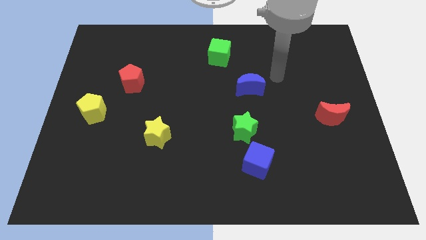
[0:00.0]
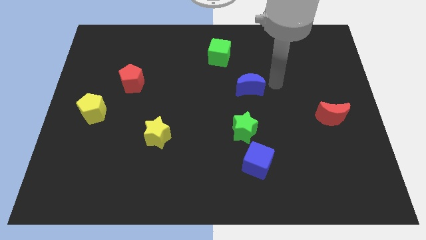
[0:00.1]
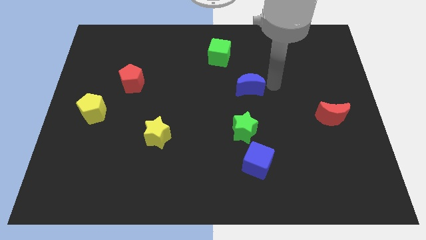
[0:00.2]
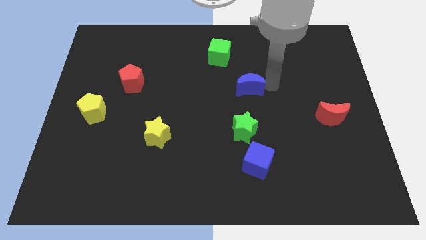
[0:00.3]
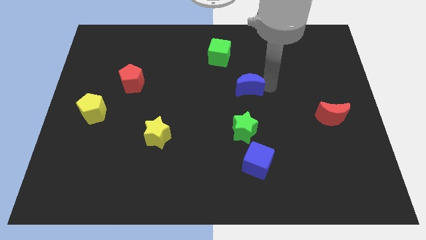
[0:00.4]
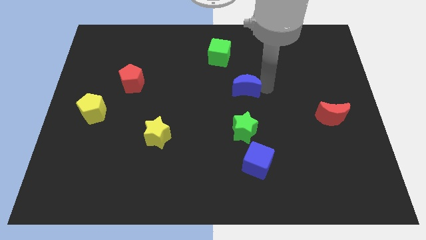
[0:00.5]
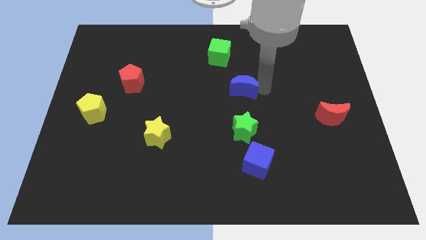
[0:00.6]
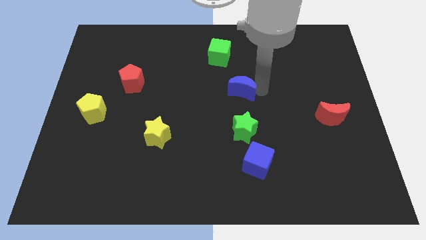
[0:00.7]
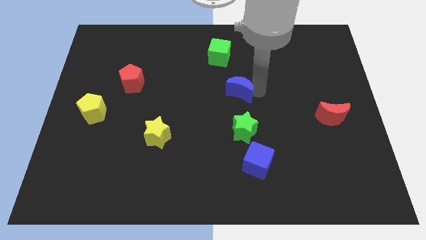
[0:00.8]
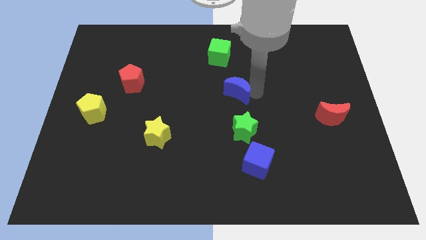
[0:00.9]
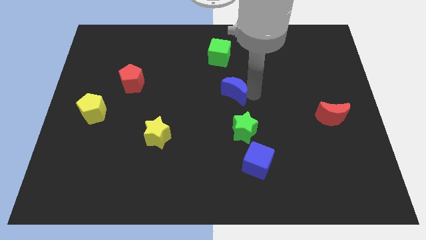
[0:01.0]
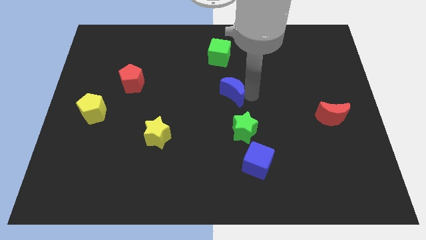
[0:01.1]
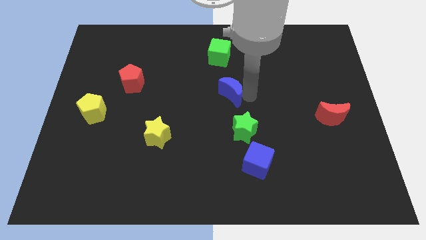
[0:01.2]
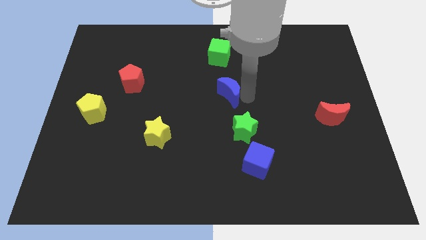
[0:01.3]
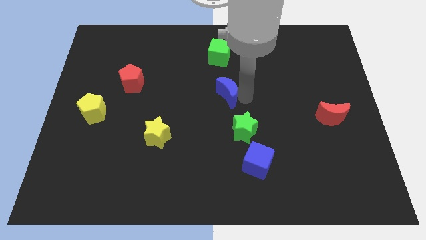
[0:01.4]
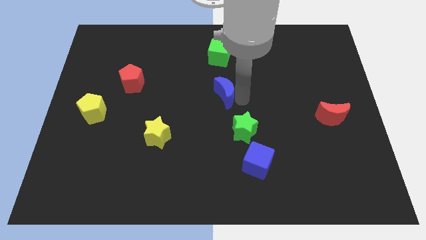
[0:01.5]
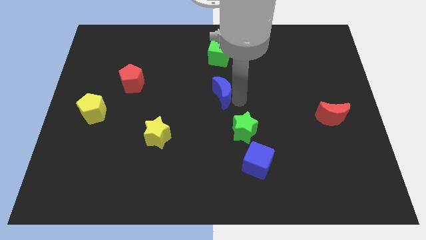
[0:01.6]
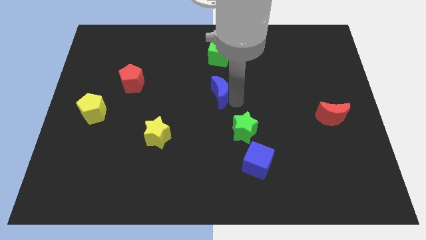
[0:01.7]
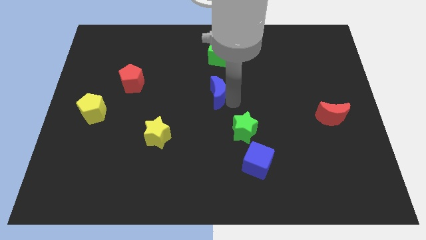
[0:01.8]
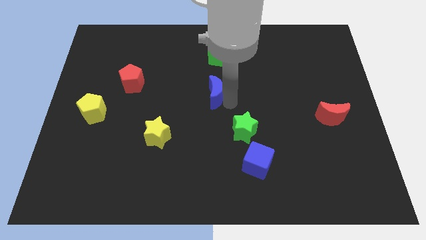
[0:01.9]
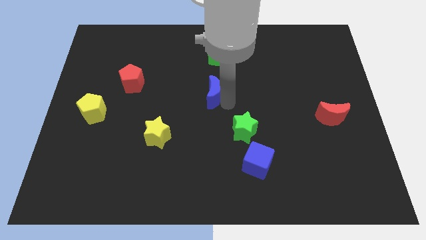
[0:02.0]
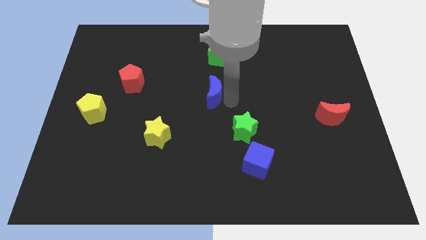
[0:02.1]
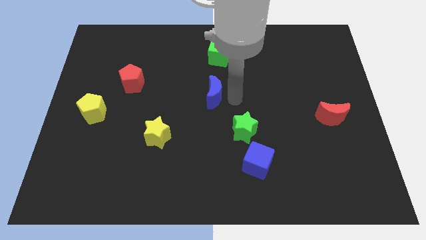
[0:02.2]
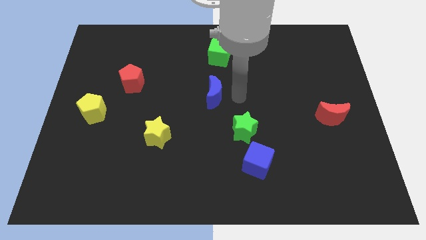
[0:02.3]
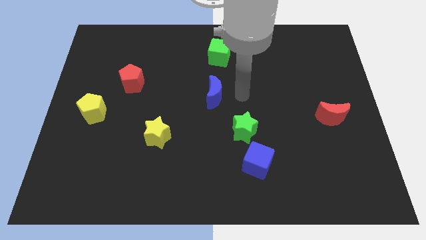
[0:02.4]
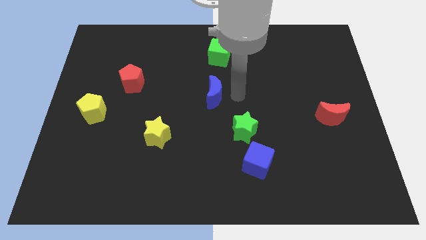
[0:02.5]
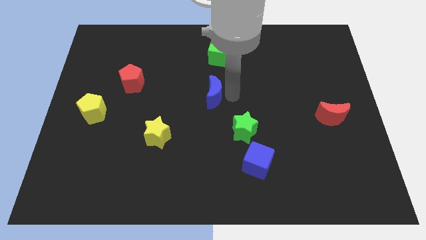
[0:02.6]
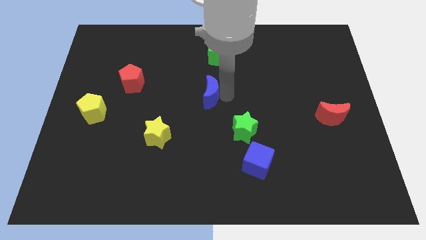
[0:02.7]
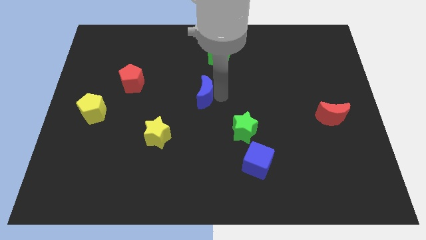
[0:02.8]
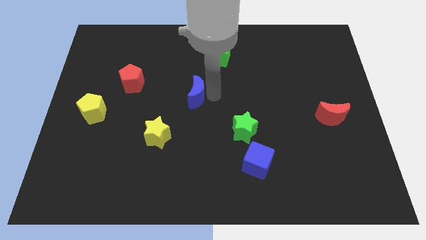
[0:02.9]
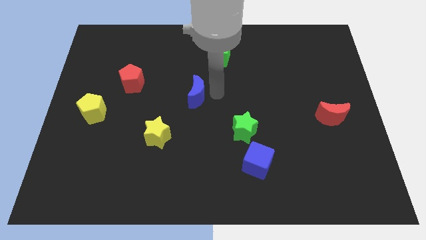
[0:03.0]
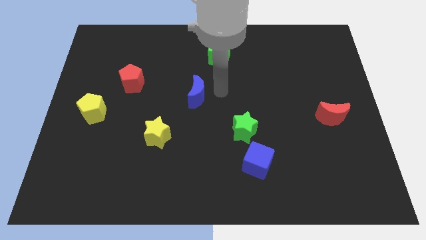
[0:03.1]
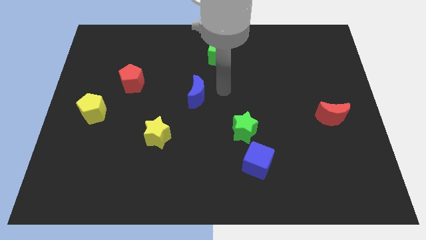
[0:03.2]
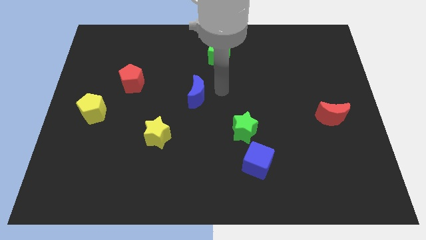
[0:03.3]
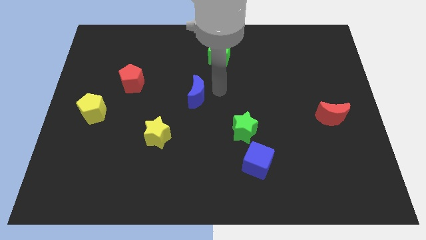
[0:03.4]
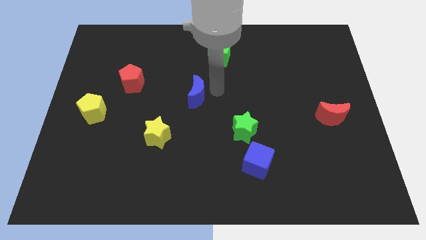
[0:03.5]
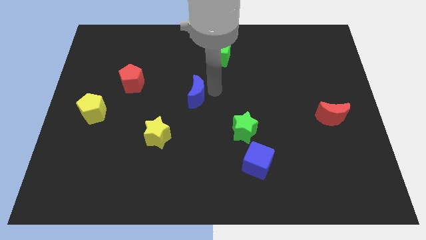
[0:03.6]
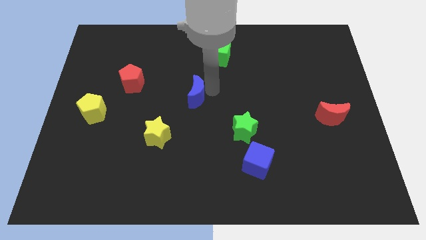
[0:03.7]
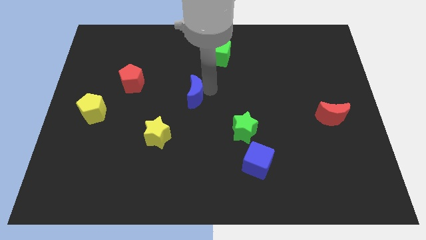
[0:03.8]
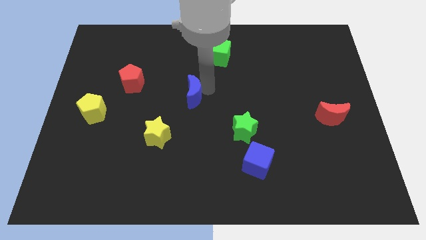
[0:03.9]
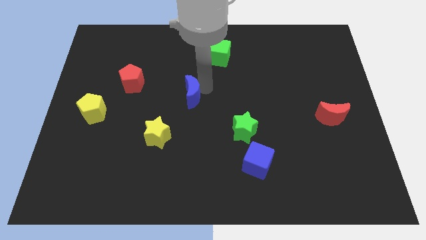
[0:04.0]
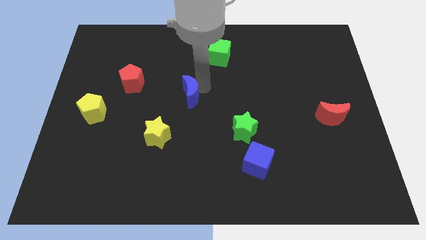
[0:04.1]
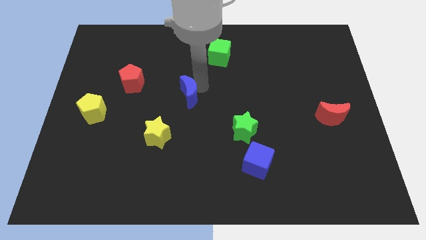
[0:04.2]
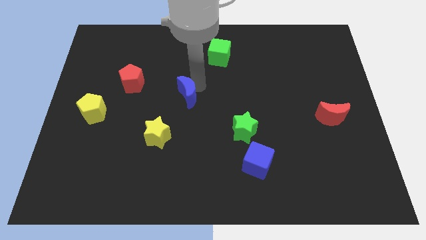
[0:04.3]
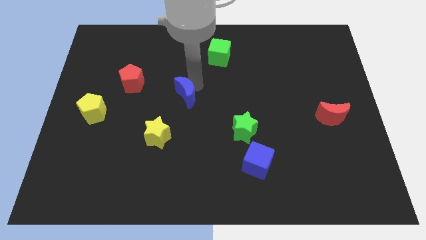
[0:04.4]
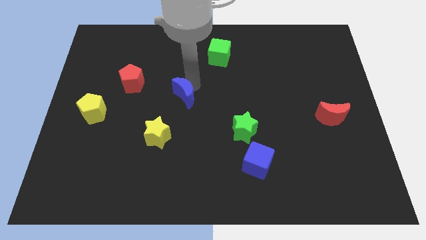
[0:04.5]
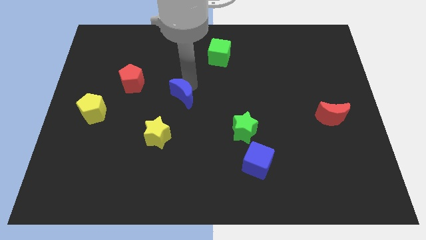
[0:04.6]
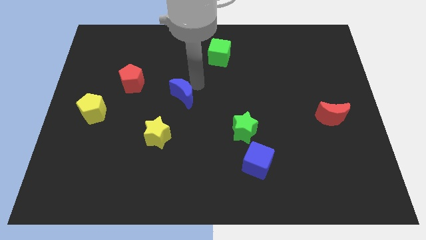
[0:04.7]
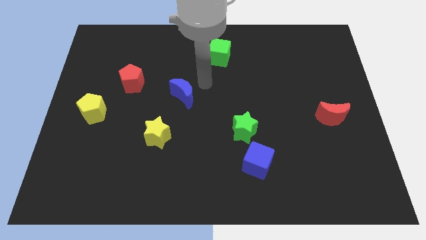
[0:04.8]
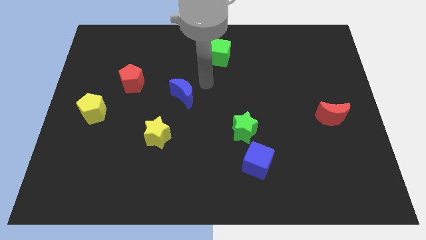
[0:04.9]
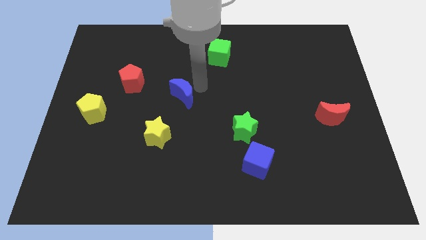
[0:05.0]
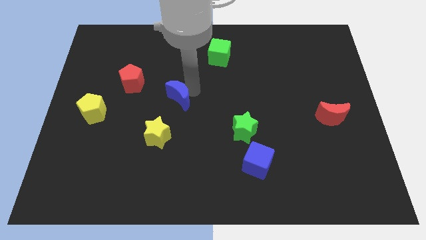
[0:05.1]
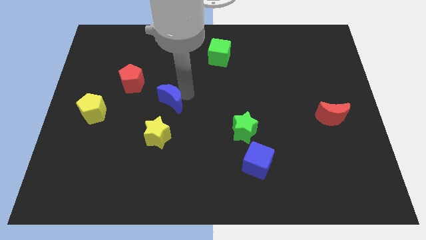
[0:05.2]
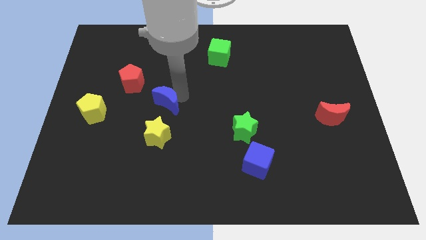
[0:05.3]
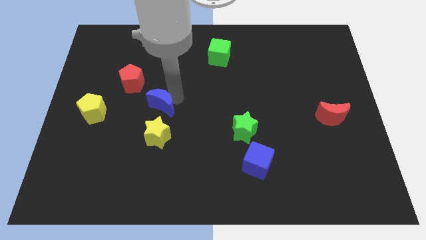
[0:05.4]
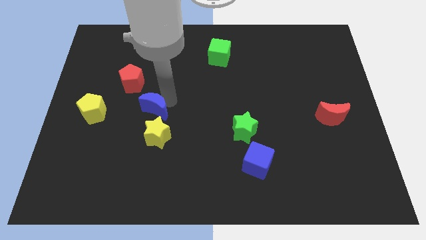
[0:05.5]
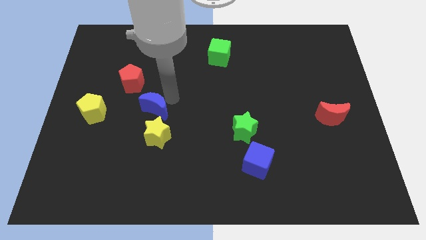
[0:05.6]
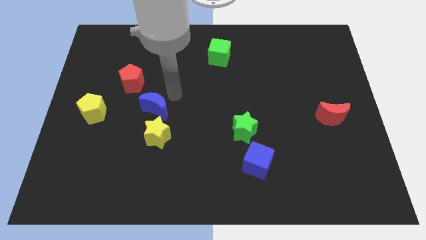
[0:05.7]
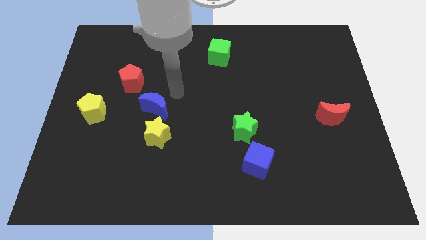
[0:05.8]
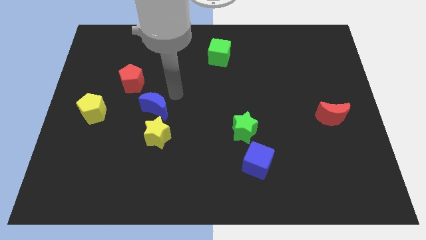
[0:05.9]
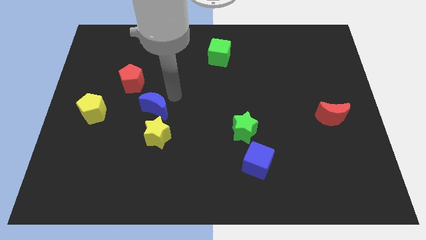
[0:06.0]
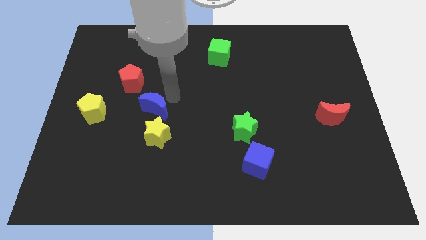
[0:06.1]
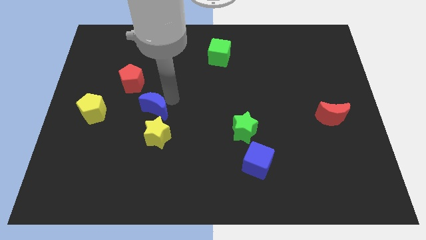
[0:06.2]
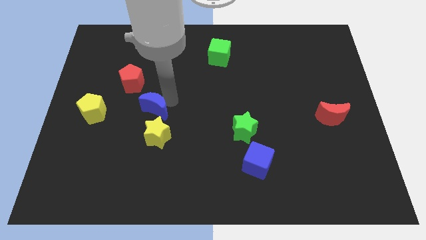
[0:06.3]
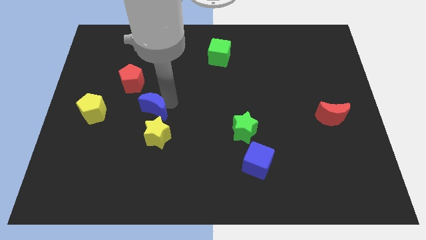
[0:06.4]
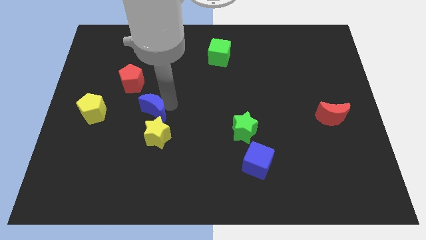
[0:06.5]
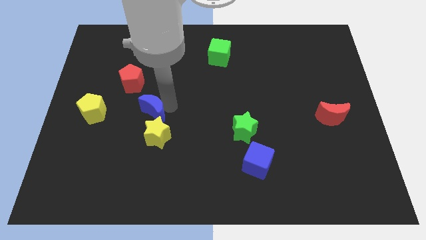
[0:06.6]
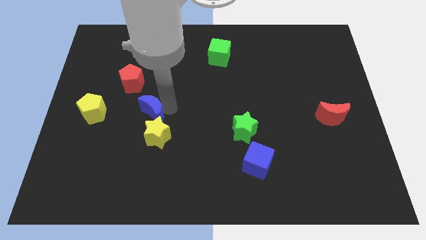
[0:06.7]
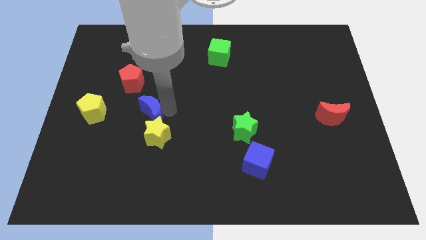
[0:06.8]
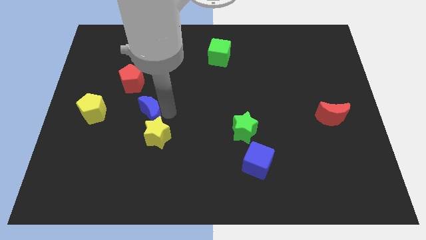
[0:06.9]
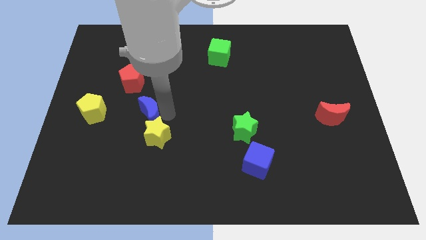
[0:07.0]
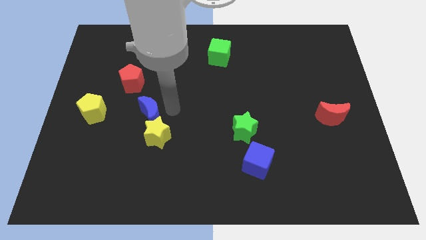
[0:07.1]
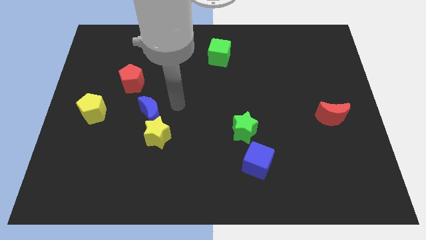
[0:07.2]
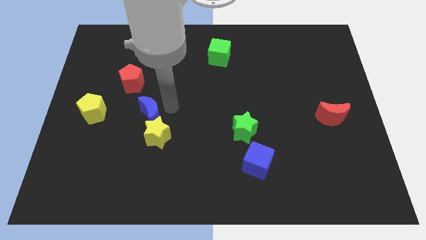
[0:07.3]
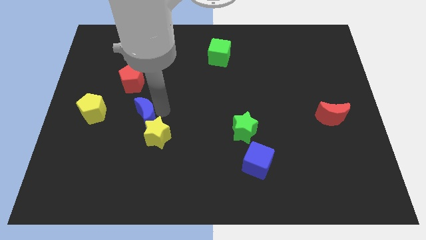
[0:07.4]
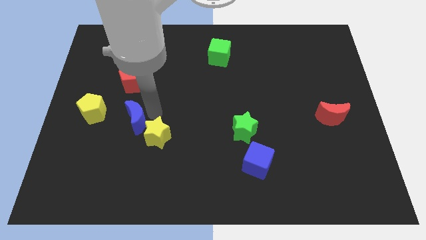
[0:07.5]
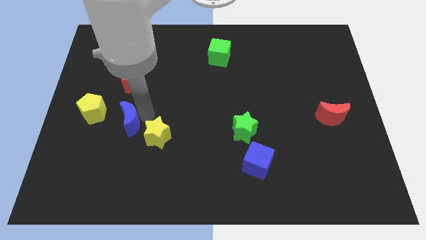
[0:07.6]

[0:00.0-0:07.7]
move the blue moon diagonally down and to the right of the yellow pentagon
